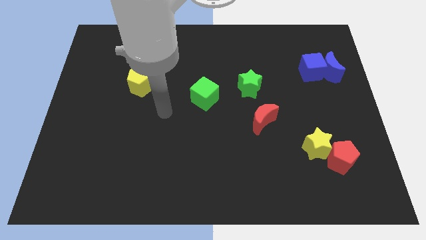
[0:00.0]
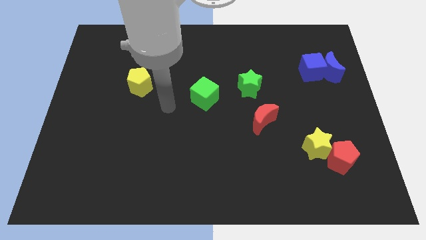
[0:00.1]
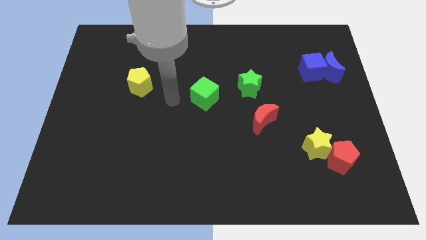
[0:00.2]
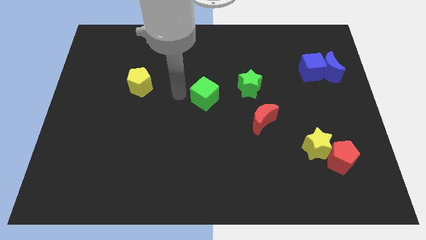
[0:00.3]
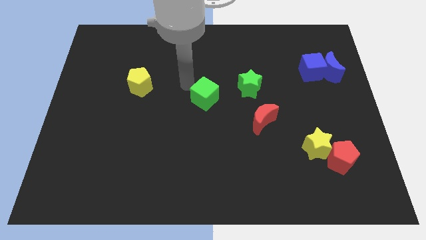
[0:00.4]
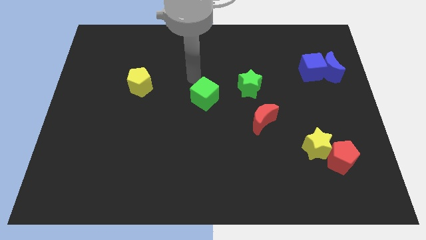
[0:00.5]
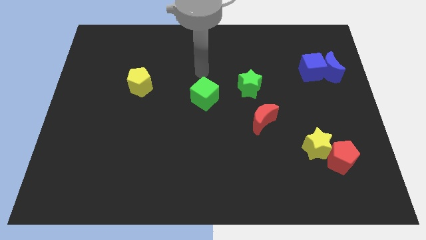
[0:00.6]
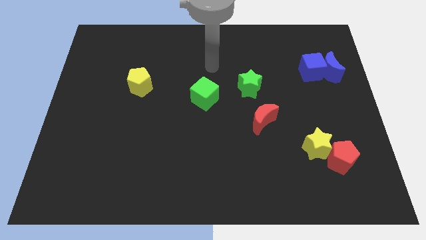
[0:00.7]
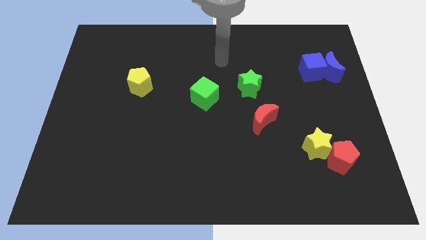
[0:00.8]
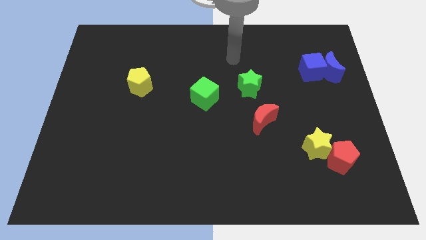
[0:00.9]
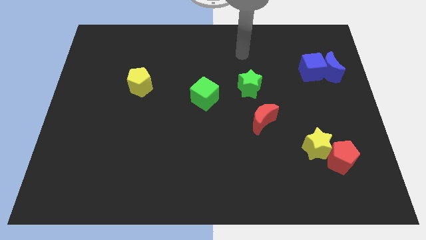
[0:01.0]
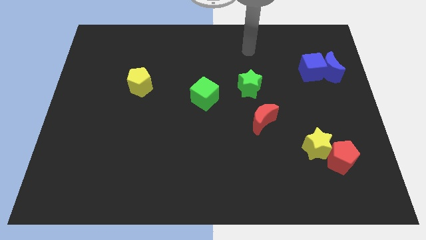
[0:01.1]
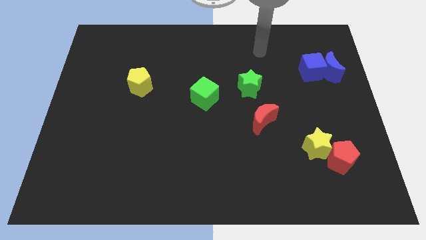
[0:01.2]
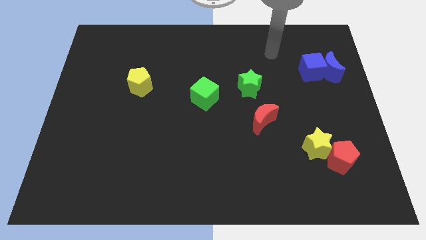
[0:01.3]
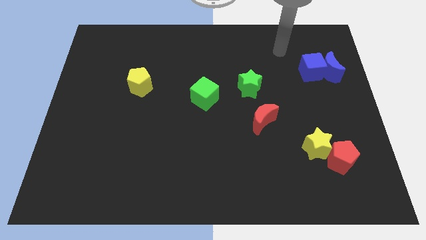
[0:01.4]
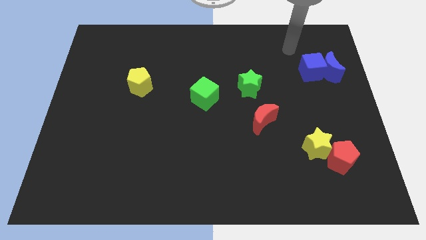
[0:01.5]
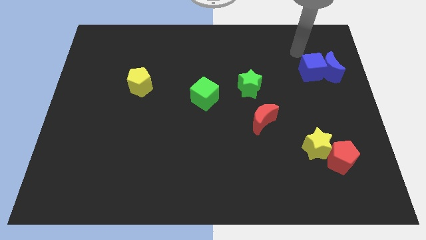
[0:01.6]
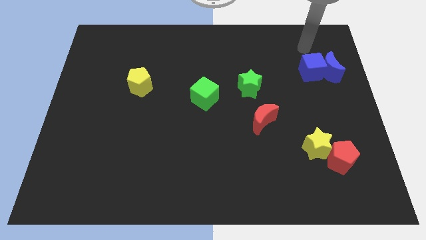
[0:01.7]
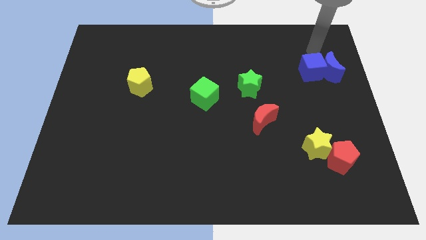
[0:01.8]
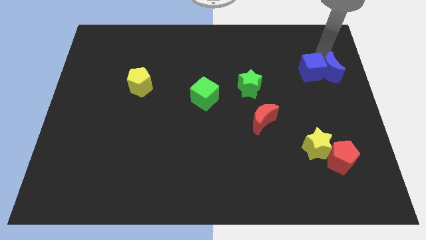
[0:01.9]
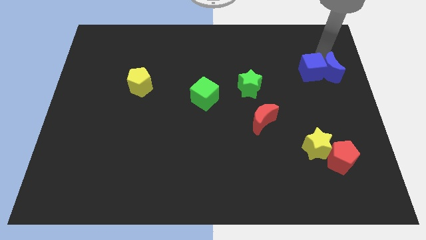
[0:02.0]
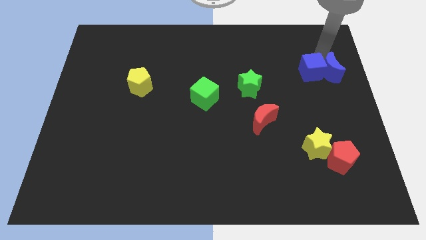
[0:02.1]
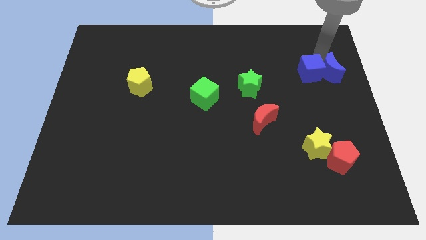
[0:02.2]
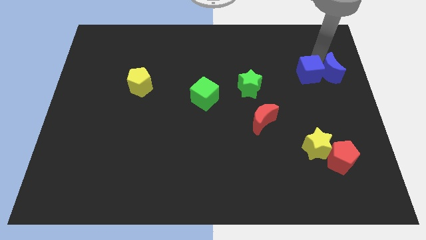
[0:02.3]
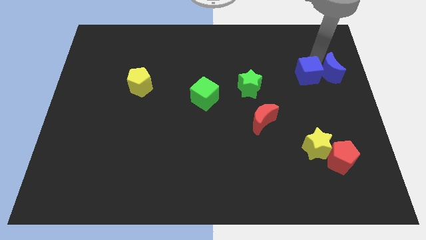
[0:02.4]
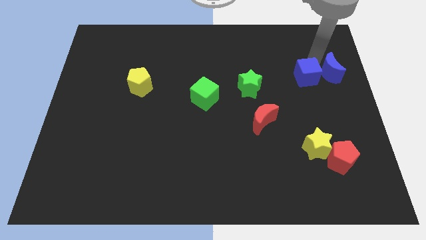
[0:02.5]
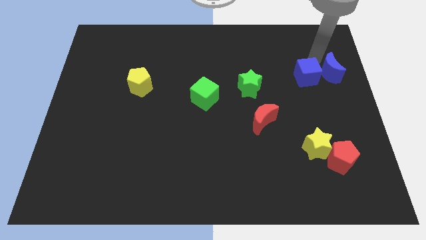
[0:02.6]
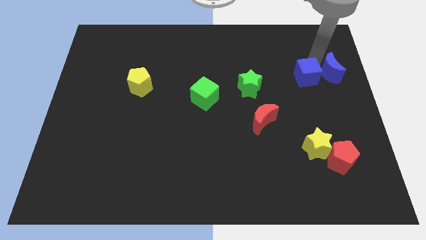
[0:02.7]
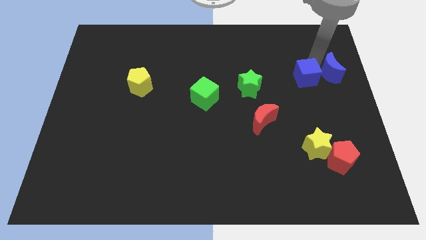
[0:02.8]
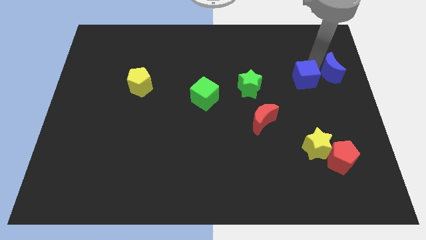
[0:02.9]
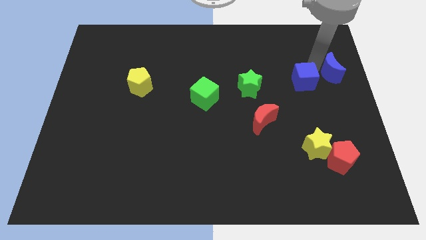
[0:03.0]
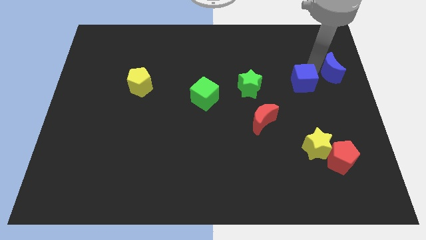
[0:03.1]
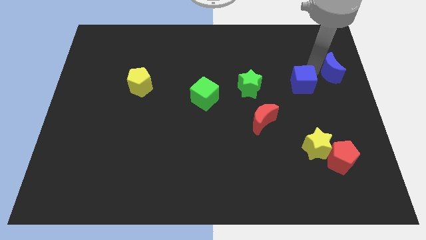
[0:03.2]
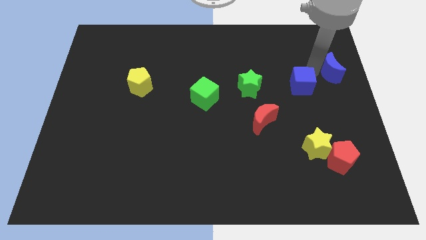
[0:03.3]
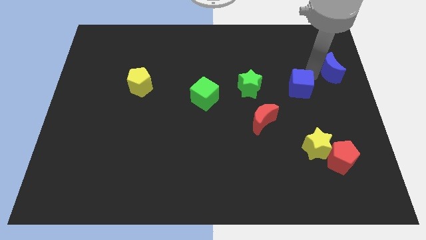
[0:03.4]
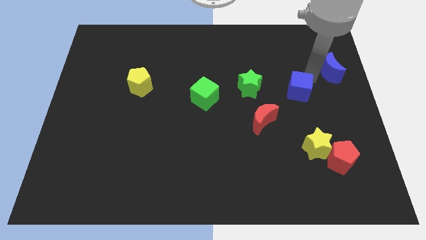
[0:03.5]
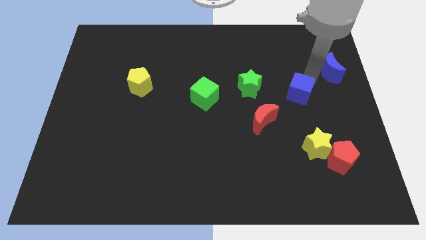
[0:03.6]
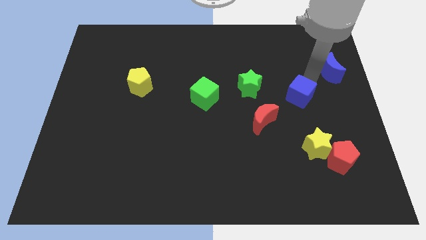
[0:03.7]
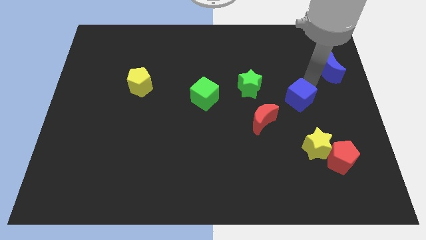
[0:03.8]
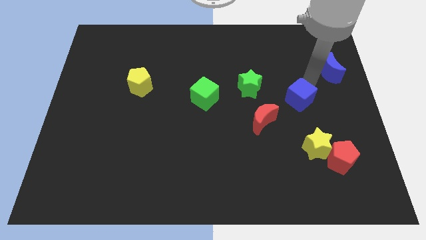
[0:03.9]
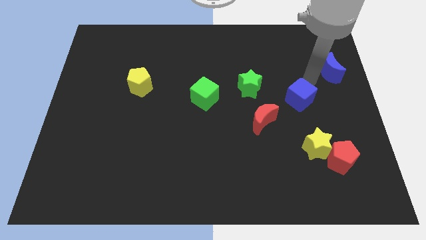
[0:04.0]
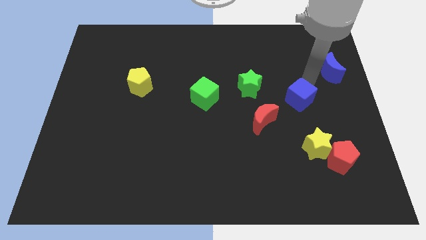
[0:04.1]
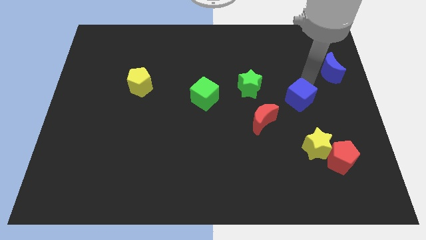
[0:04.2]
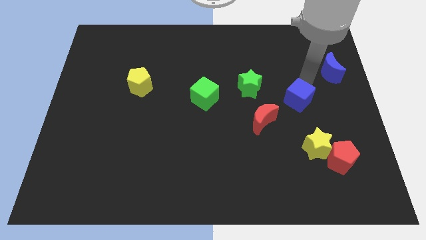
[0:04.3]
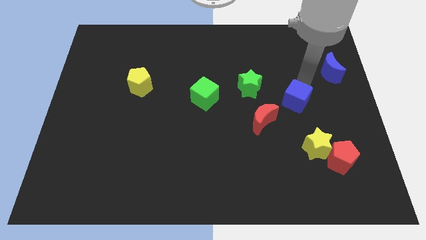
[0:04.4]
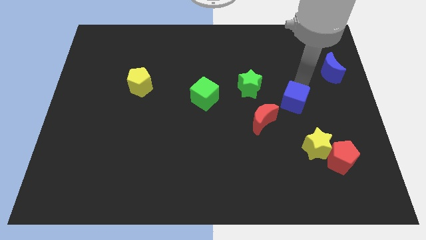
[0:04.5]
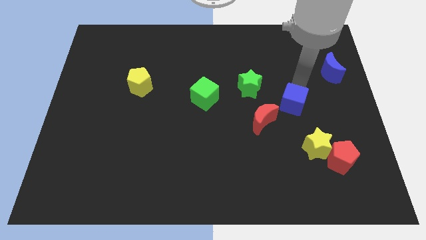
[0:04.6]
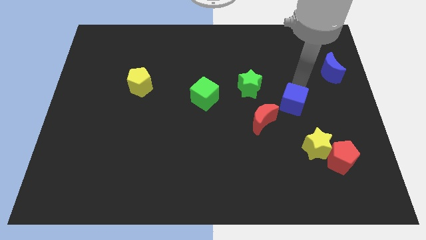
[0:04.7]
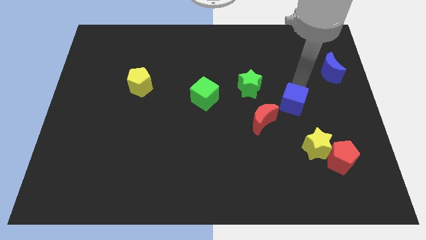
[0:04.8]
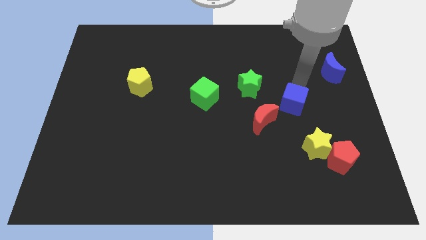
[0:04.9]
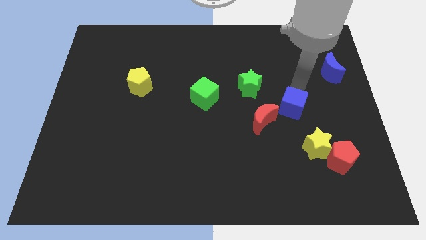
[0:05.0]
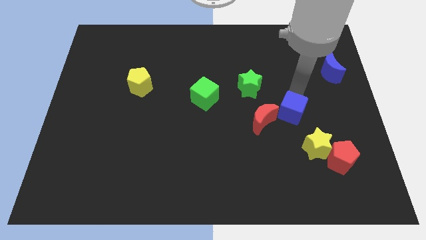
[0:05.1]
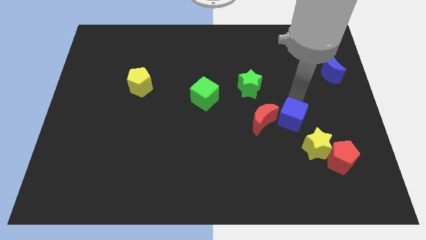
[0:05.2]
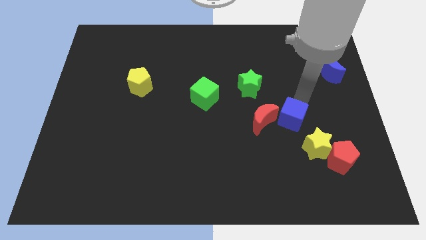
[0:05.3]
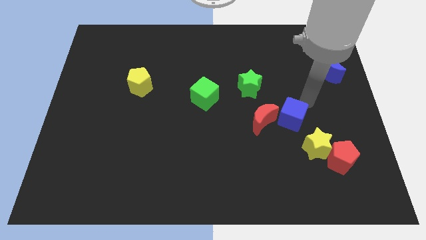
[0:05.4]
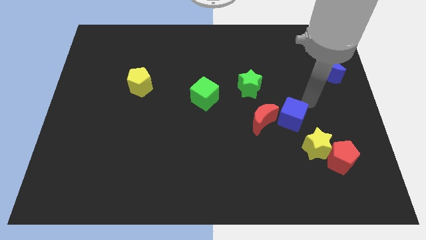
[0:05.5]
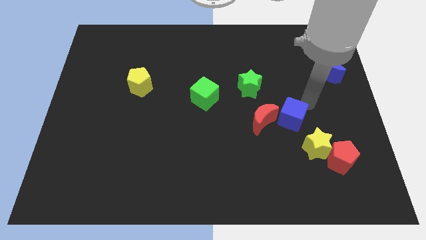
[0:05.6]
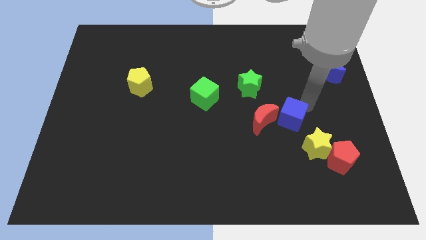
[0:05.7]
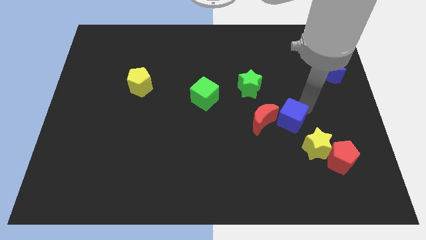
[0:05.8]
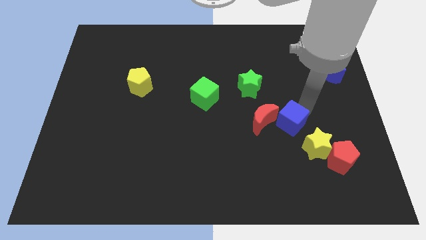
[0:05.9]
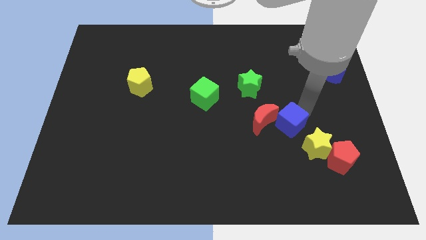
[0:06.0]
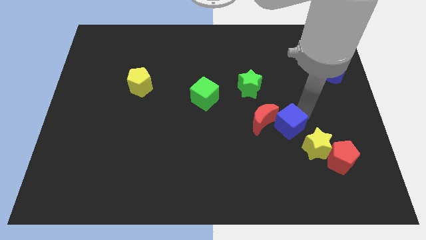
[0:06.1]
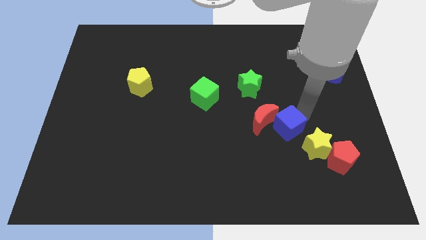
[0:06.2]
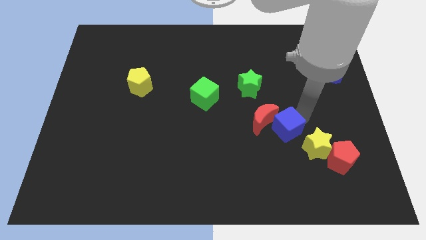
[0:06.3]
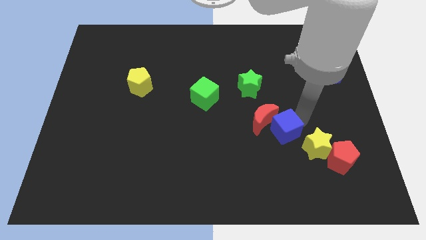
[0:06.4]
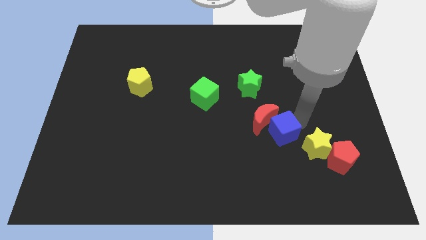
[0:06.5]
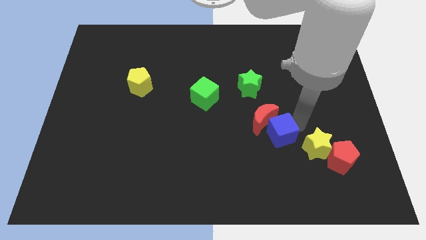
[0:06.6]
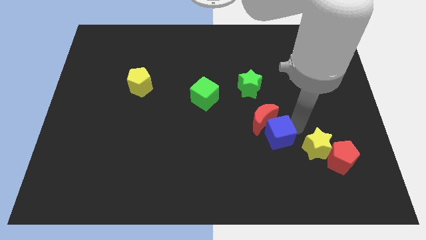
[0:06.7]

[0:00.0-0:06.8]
push the blue cube down and left

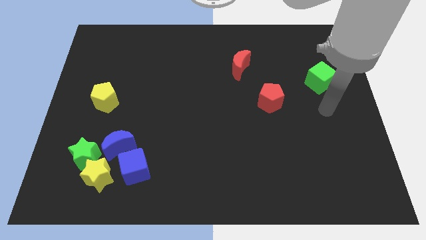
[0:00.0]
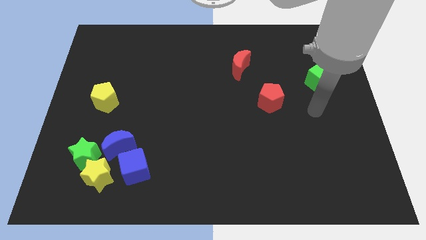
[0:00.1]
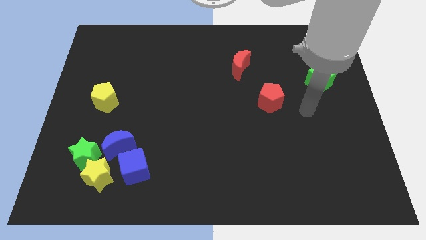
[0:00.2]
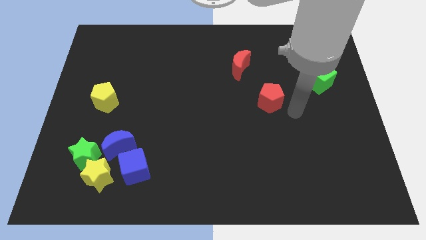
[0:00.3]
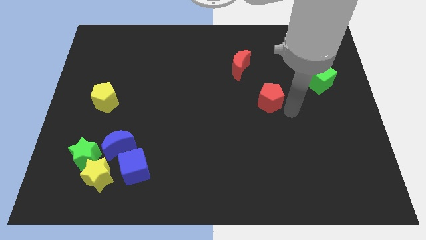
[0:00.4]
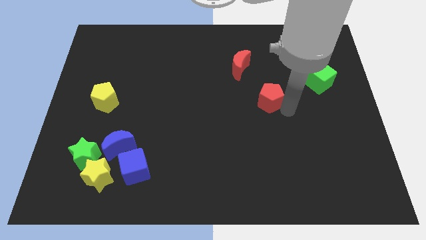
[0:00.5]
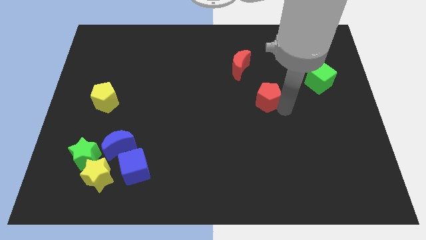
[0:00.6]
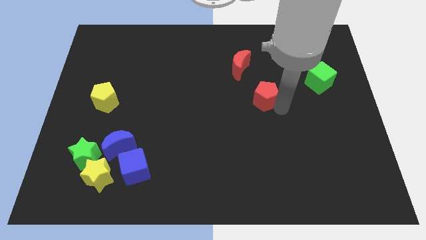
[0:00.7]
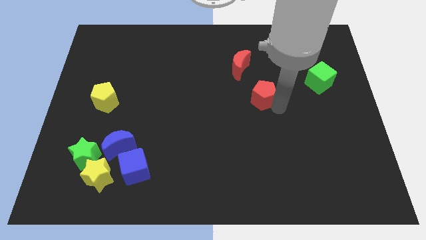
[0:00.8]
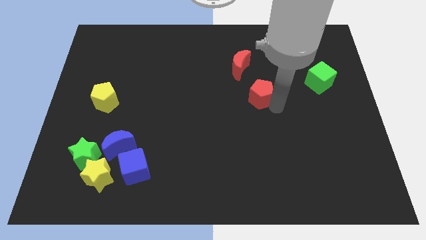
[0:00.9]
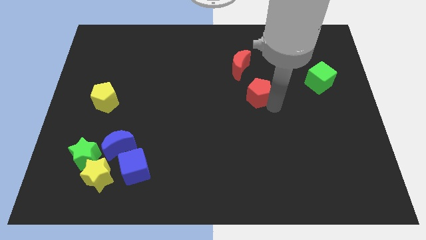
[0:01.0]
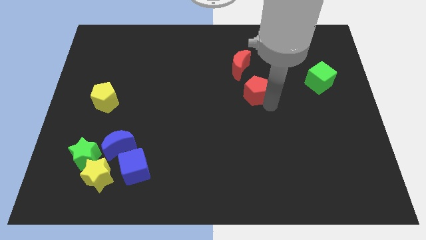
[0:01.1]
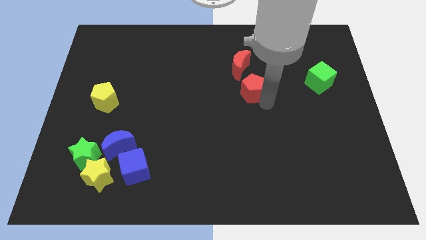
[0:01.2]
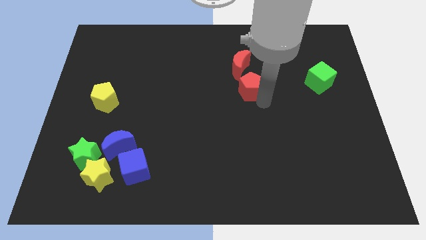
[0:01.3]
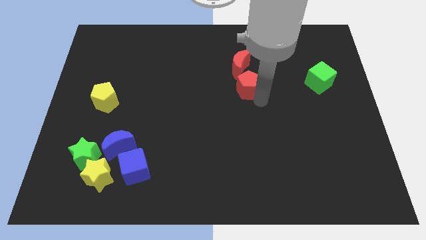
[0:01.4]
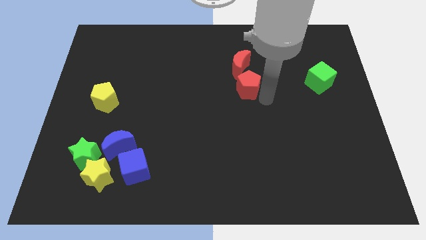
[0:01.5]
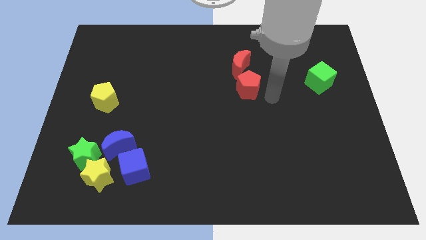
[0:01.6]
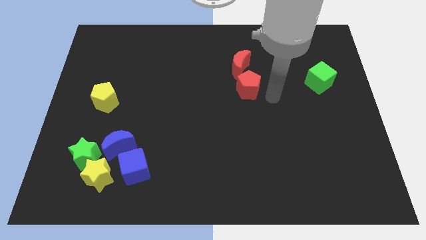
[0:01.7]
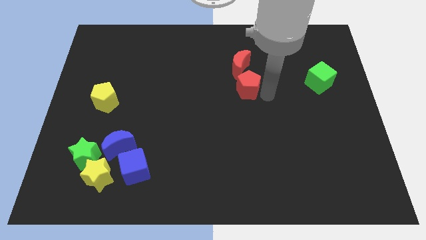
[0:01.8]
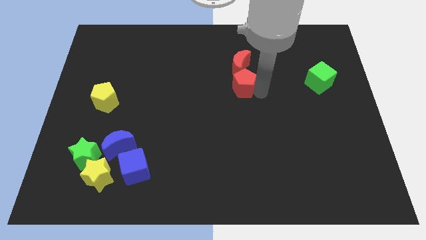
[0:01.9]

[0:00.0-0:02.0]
push the red pentagon somewhat up and then to the left
